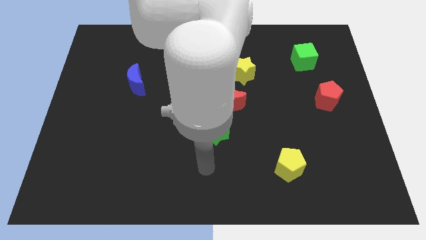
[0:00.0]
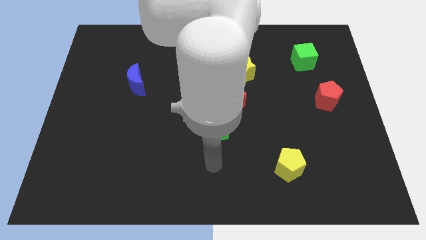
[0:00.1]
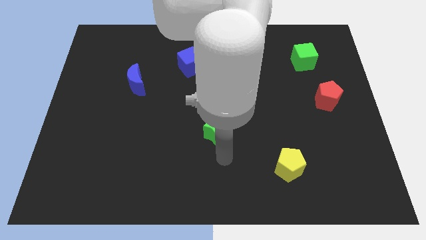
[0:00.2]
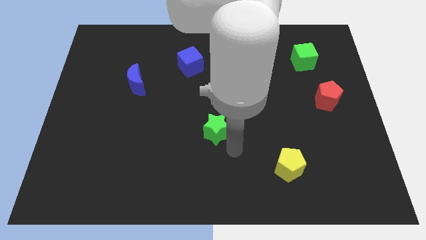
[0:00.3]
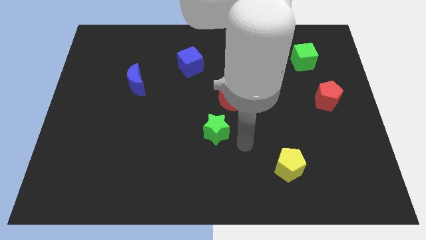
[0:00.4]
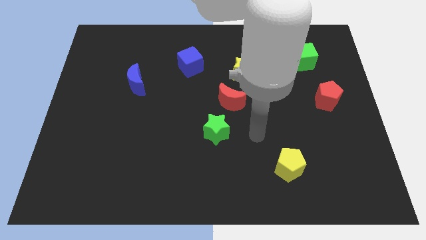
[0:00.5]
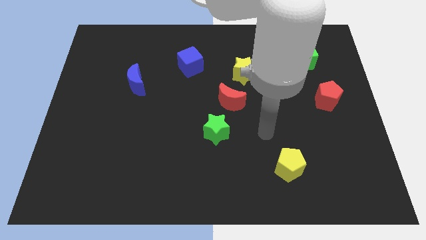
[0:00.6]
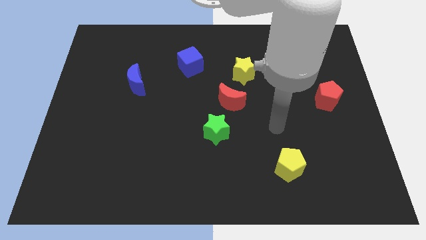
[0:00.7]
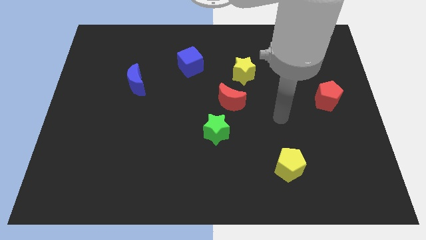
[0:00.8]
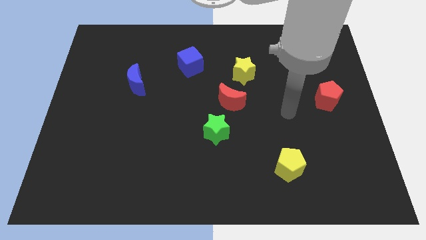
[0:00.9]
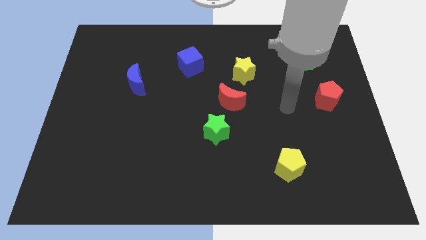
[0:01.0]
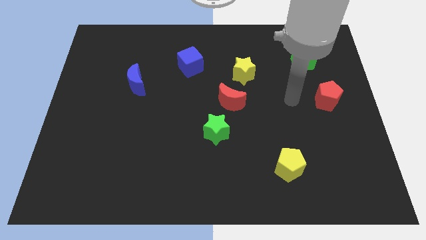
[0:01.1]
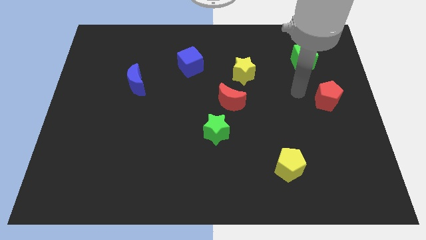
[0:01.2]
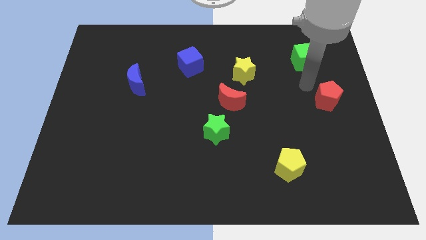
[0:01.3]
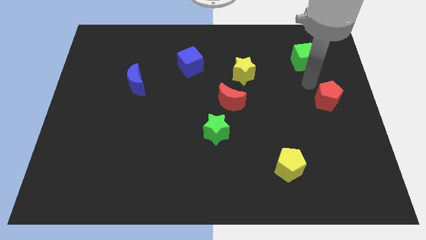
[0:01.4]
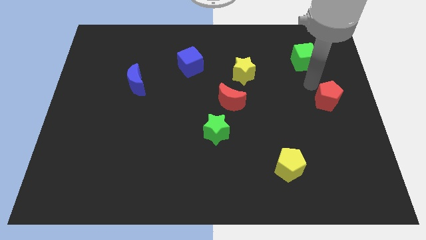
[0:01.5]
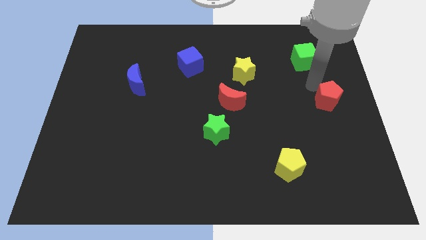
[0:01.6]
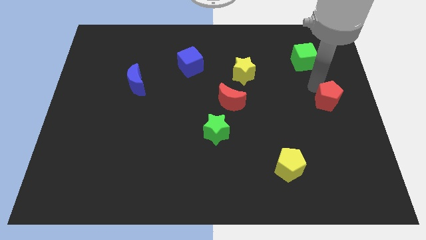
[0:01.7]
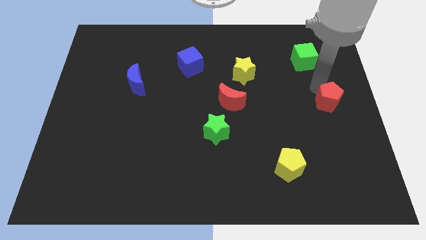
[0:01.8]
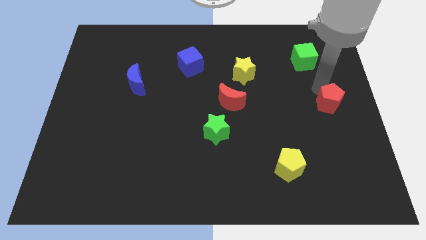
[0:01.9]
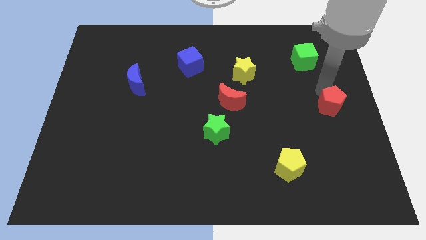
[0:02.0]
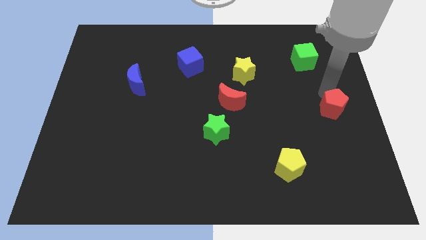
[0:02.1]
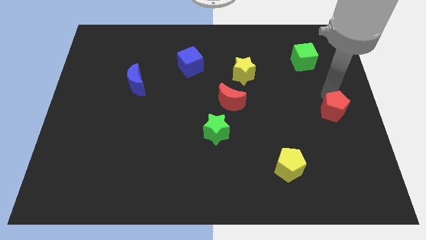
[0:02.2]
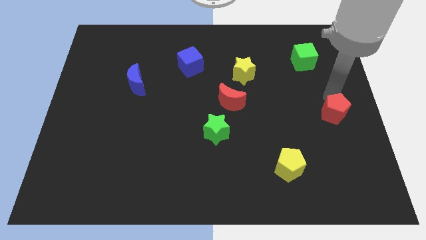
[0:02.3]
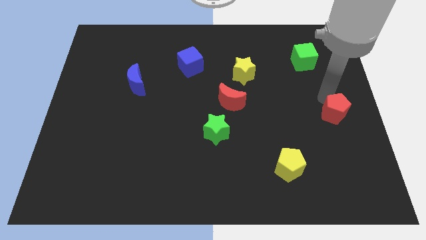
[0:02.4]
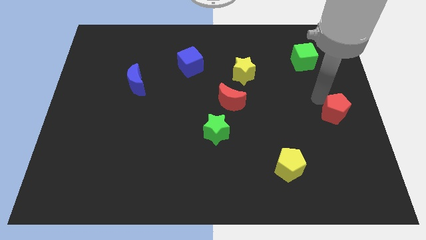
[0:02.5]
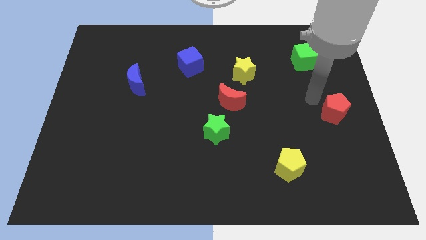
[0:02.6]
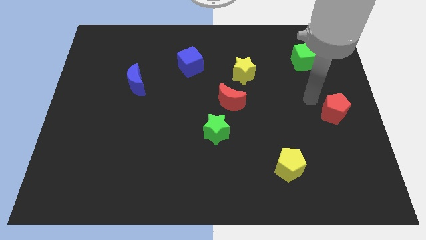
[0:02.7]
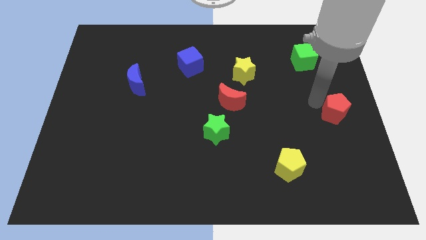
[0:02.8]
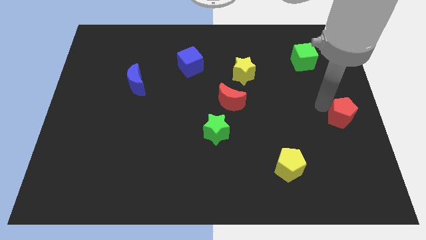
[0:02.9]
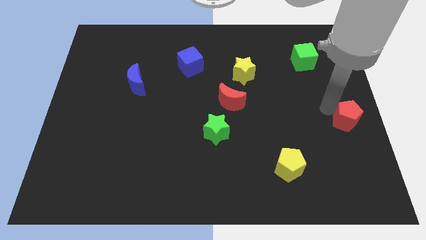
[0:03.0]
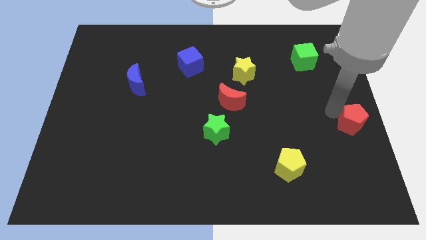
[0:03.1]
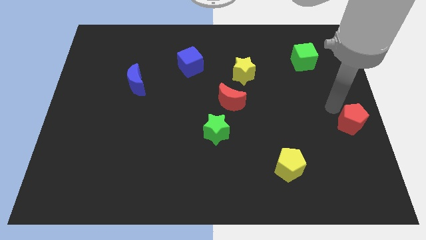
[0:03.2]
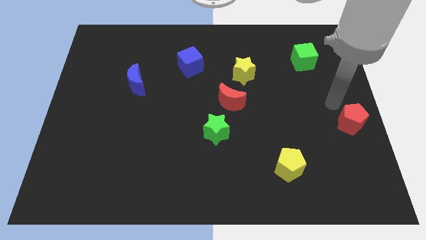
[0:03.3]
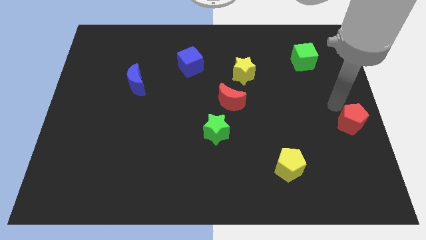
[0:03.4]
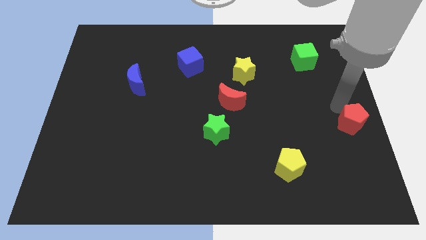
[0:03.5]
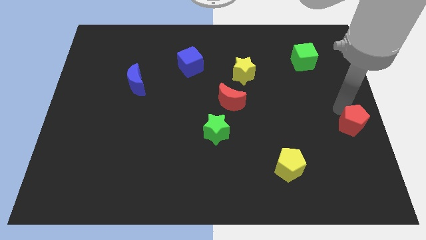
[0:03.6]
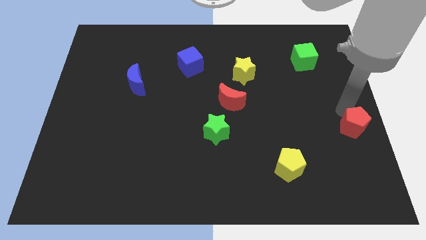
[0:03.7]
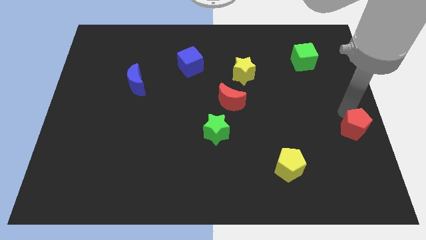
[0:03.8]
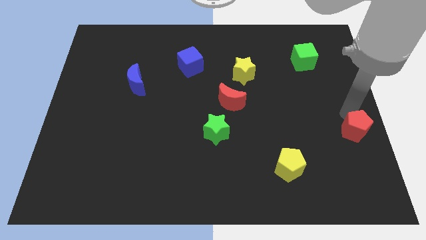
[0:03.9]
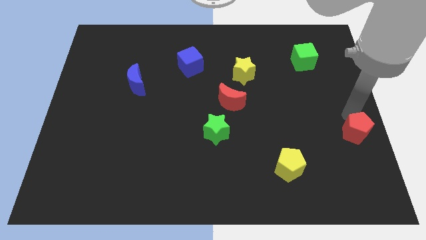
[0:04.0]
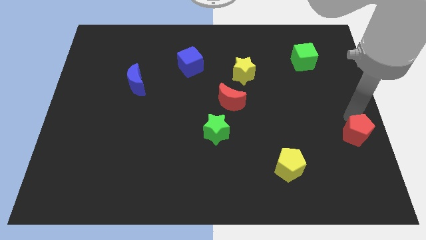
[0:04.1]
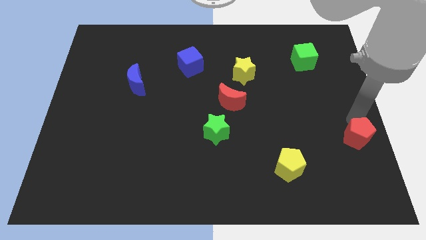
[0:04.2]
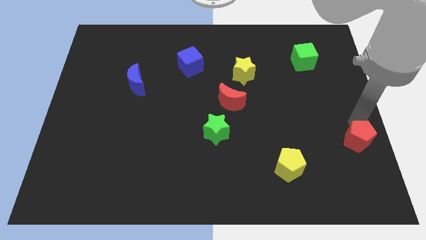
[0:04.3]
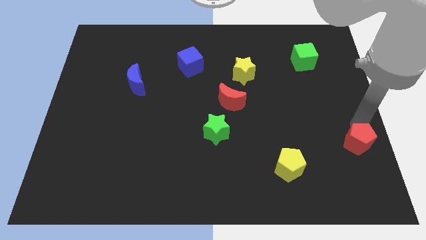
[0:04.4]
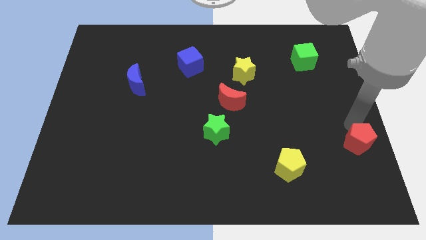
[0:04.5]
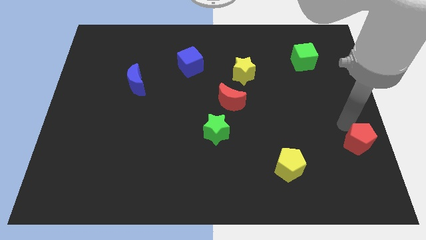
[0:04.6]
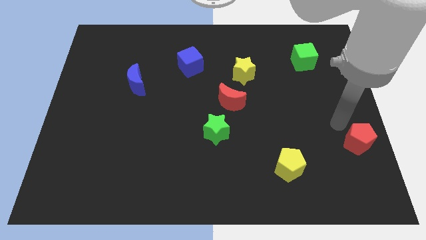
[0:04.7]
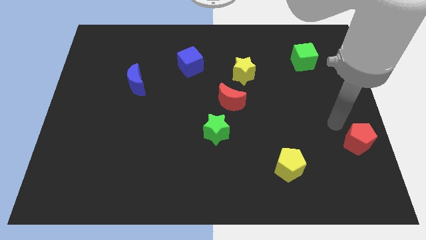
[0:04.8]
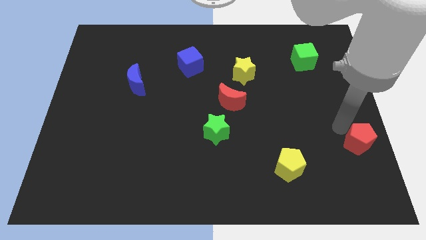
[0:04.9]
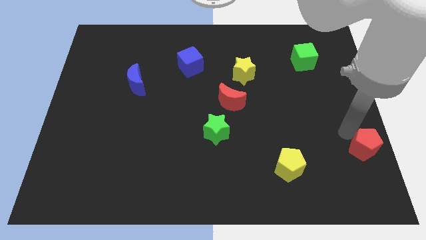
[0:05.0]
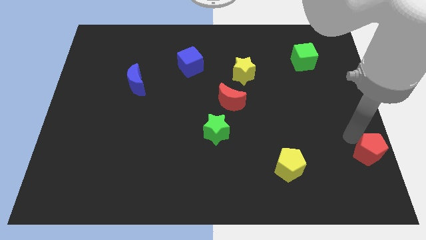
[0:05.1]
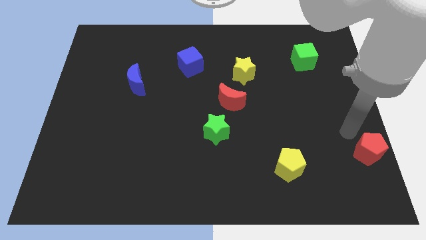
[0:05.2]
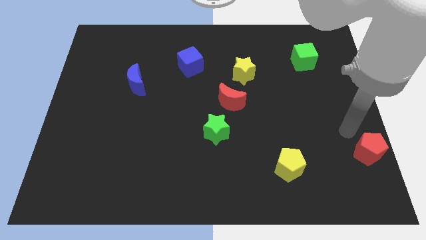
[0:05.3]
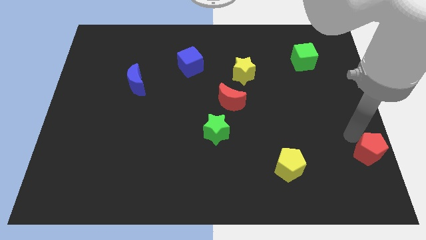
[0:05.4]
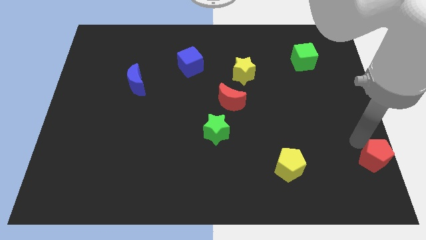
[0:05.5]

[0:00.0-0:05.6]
slide the red pentagon to the bottom right
